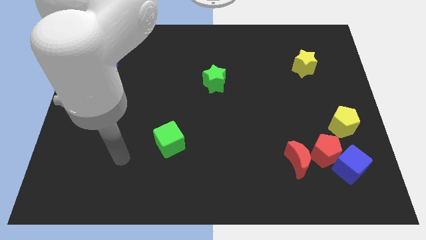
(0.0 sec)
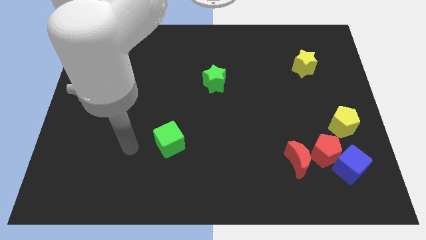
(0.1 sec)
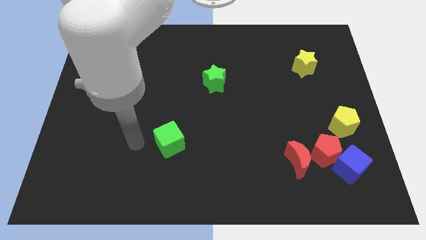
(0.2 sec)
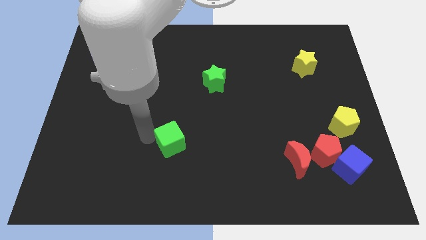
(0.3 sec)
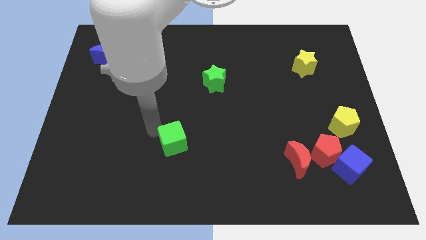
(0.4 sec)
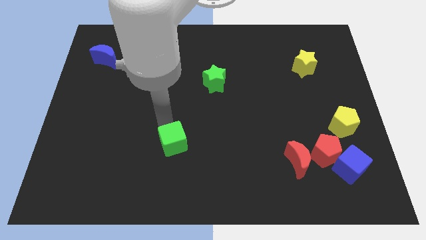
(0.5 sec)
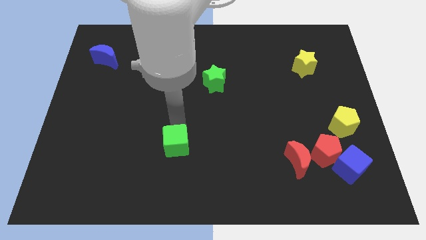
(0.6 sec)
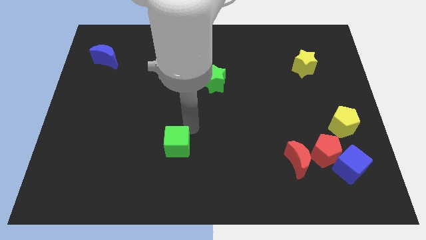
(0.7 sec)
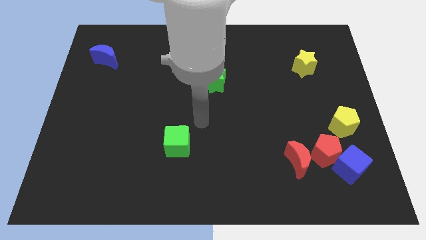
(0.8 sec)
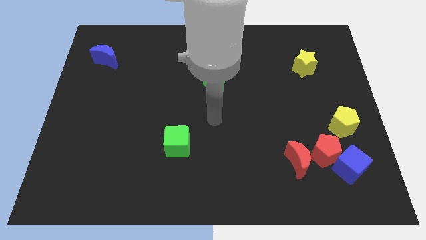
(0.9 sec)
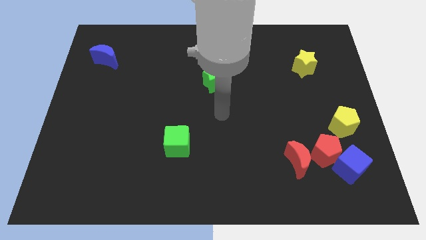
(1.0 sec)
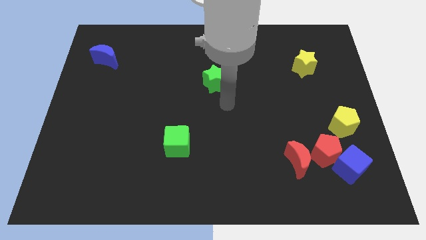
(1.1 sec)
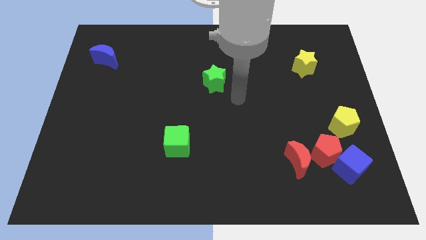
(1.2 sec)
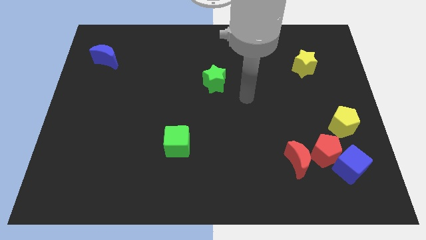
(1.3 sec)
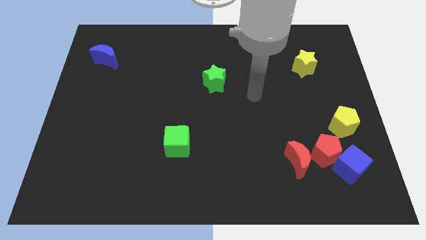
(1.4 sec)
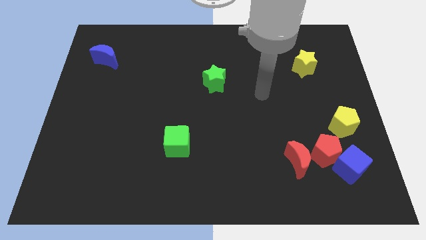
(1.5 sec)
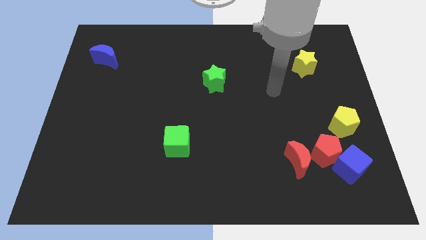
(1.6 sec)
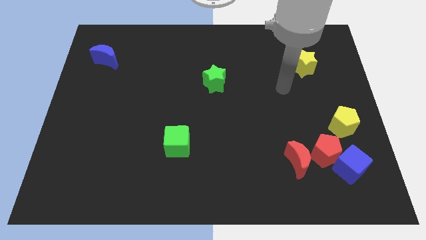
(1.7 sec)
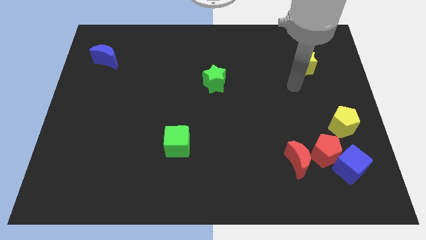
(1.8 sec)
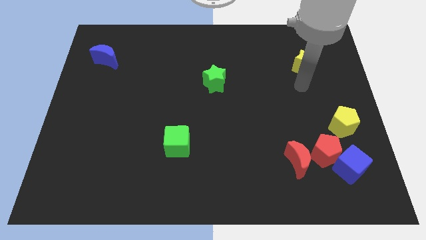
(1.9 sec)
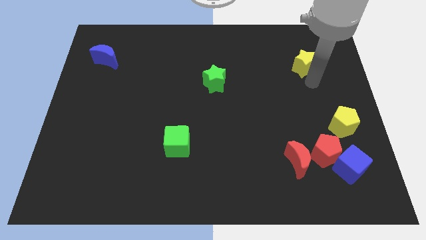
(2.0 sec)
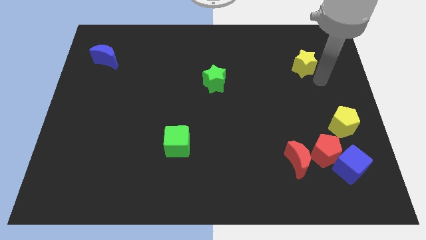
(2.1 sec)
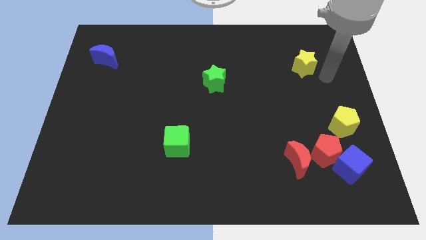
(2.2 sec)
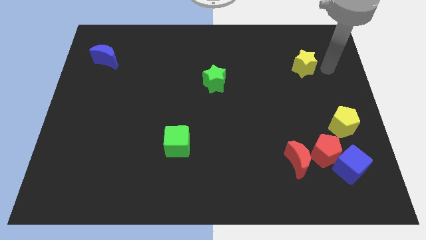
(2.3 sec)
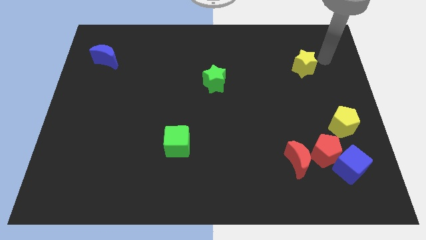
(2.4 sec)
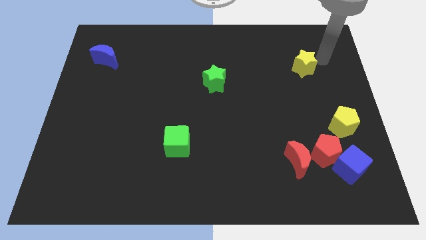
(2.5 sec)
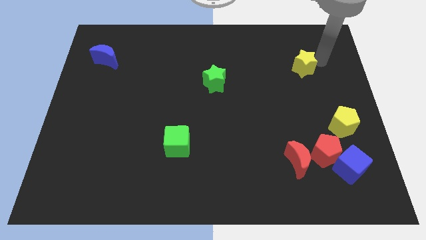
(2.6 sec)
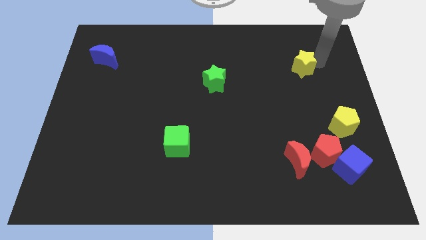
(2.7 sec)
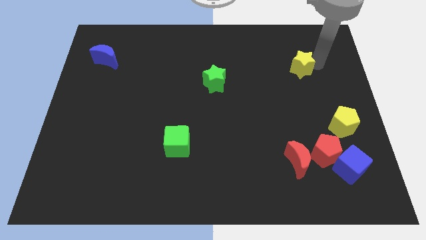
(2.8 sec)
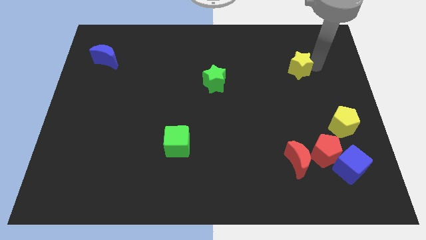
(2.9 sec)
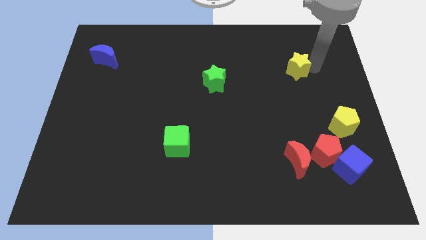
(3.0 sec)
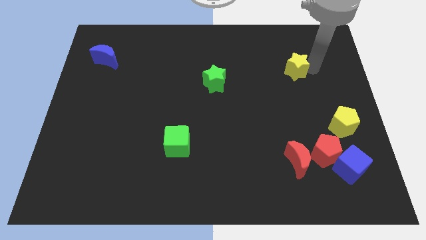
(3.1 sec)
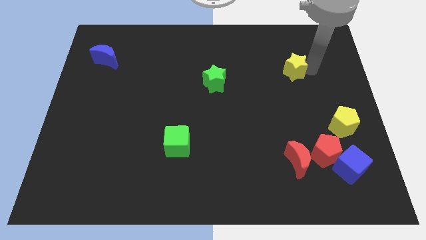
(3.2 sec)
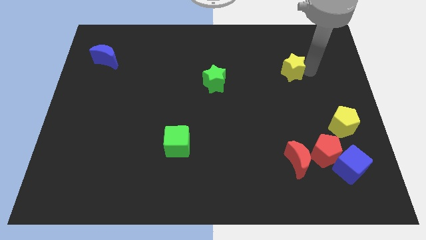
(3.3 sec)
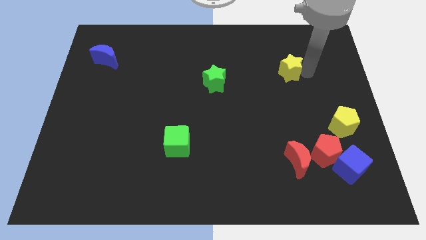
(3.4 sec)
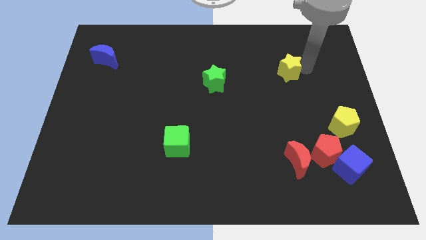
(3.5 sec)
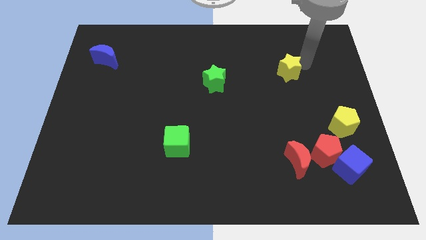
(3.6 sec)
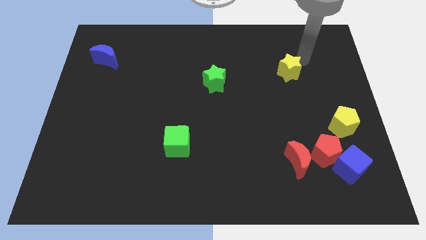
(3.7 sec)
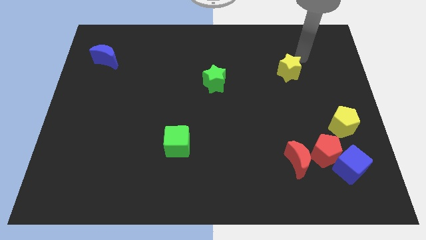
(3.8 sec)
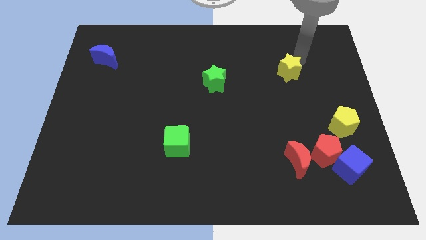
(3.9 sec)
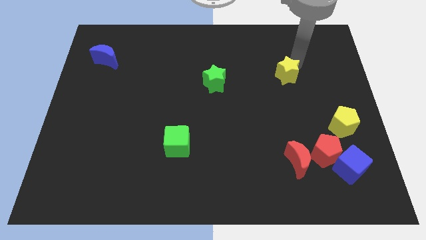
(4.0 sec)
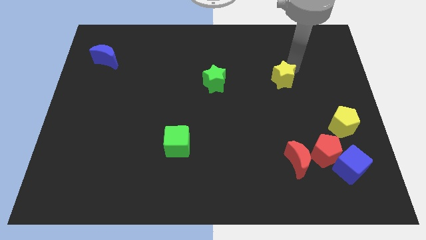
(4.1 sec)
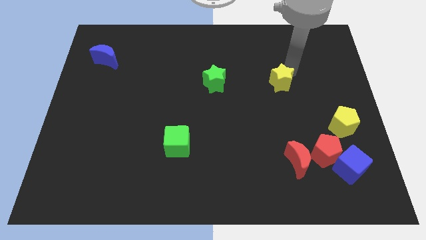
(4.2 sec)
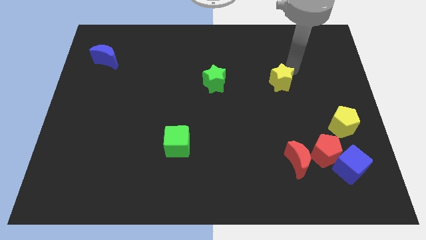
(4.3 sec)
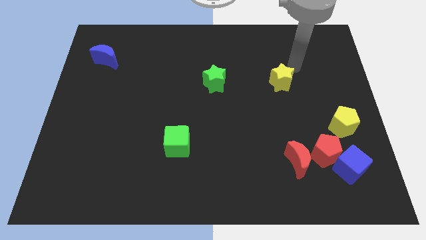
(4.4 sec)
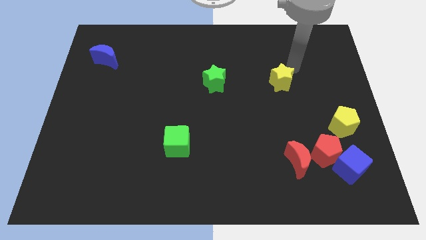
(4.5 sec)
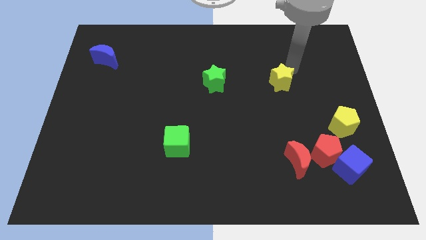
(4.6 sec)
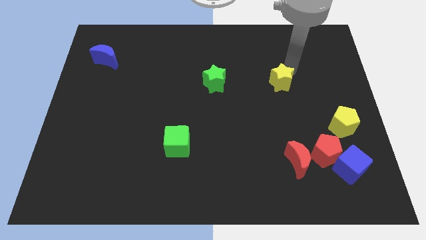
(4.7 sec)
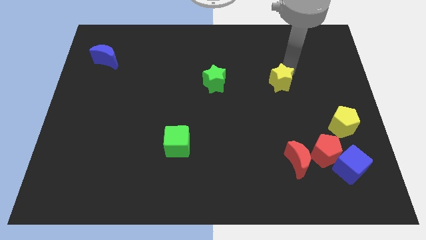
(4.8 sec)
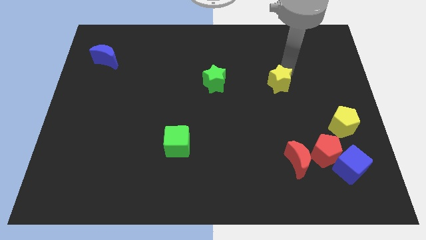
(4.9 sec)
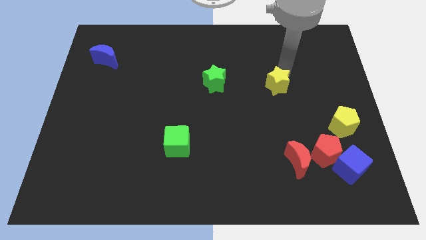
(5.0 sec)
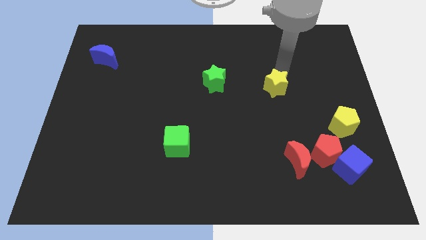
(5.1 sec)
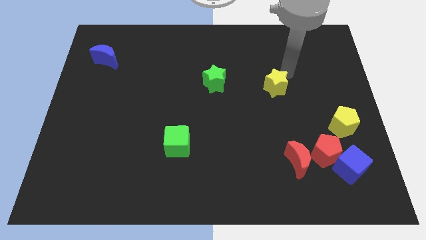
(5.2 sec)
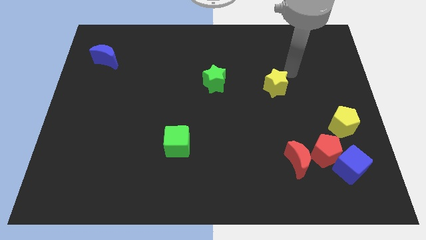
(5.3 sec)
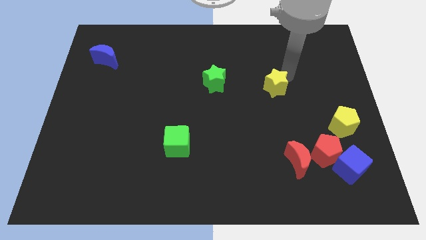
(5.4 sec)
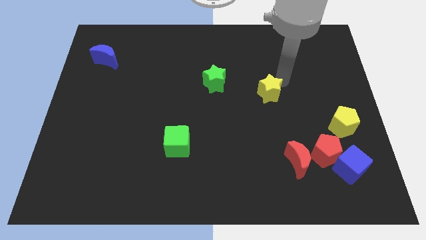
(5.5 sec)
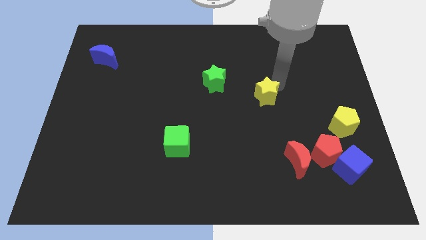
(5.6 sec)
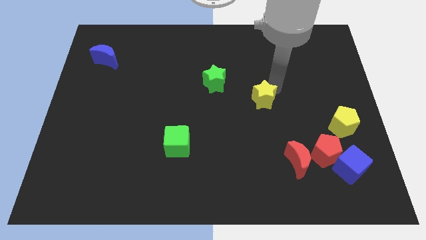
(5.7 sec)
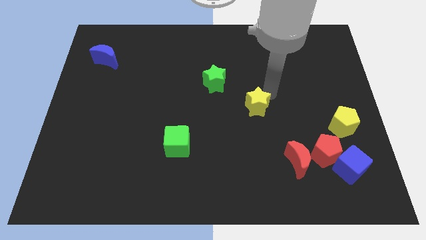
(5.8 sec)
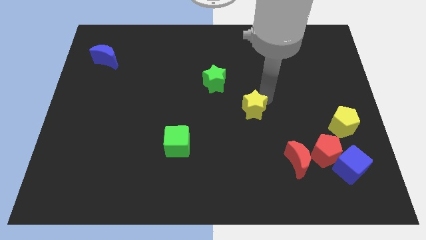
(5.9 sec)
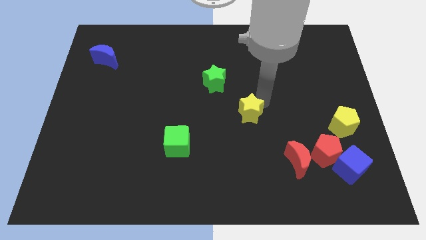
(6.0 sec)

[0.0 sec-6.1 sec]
push the yellow star downwards and to the left

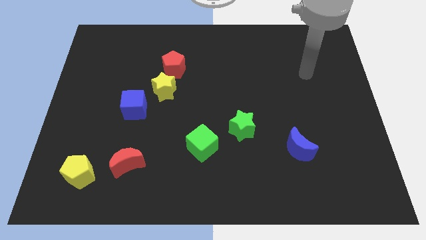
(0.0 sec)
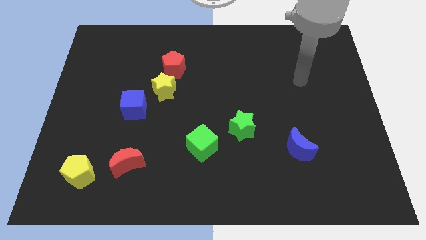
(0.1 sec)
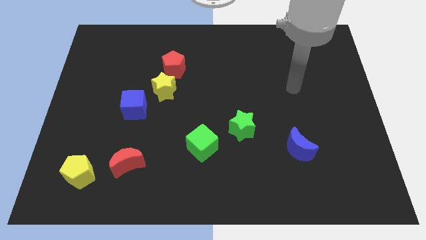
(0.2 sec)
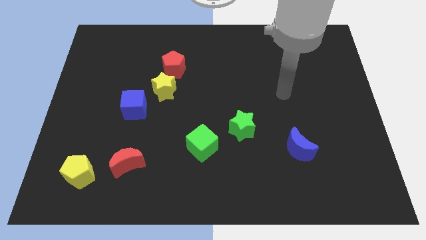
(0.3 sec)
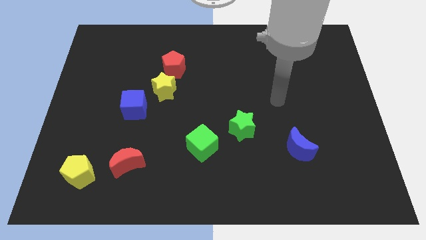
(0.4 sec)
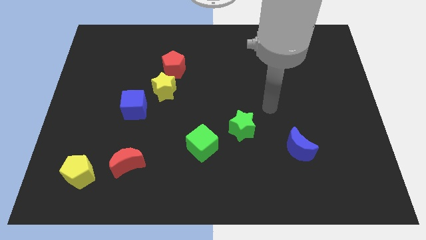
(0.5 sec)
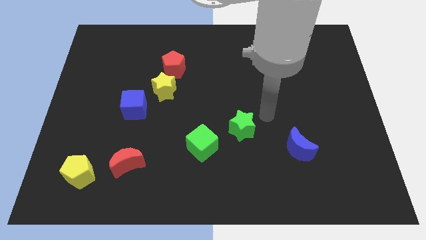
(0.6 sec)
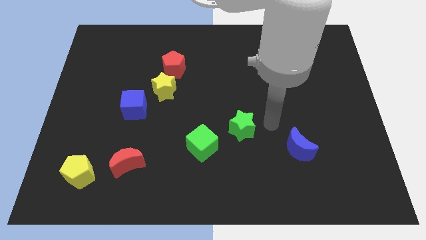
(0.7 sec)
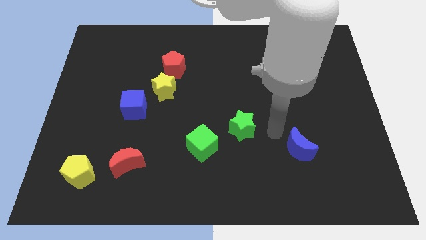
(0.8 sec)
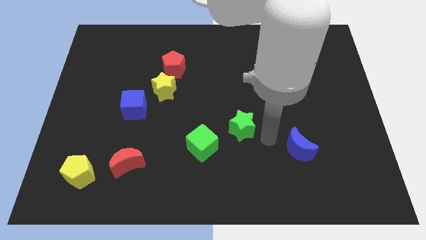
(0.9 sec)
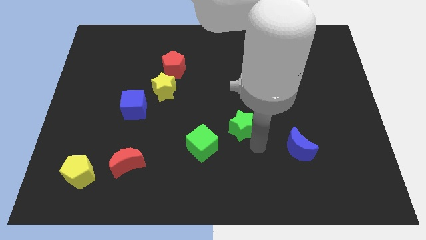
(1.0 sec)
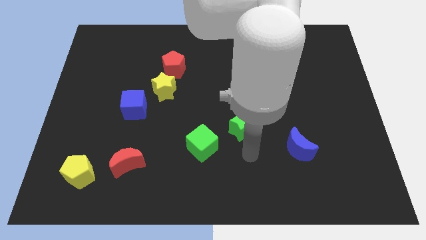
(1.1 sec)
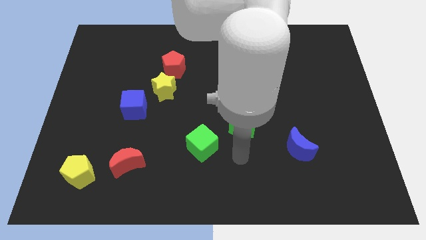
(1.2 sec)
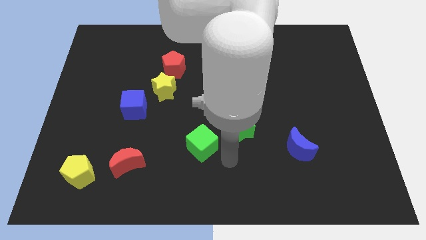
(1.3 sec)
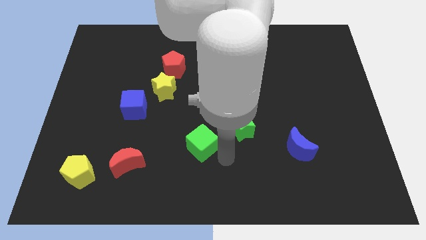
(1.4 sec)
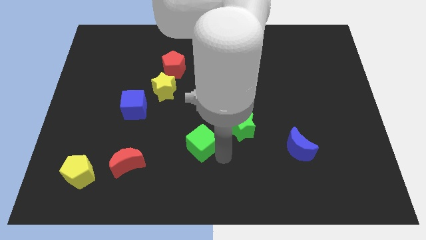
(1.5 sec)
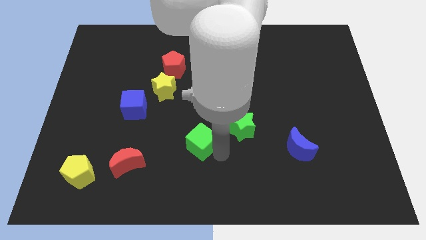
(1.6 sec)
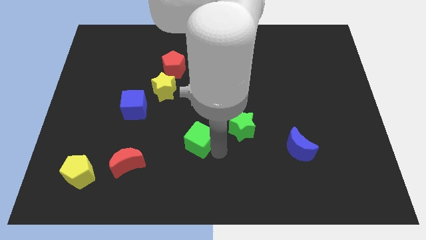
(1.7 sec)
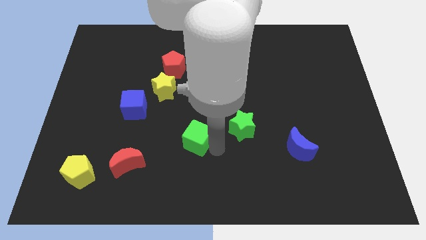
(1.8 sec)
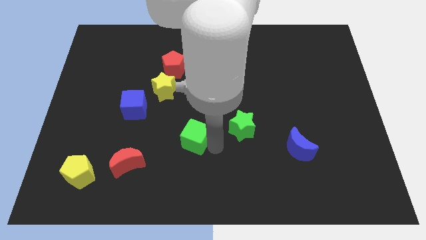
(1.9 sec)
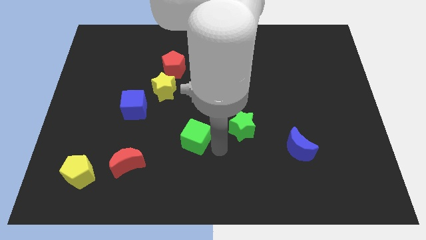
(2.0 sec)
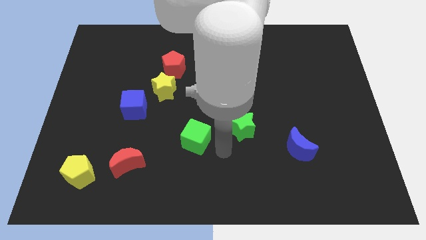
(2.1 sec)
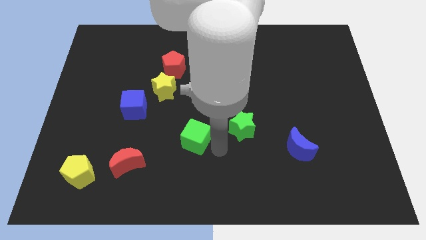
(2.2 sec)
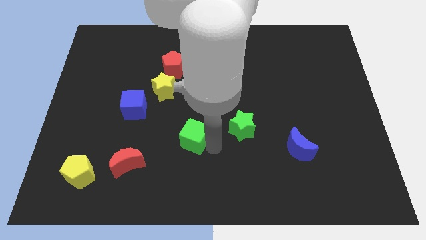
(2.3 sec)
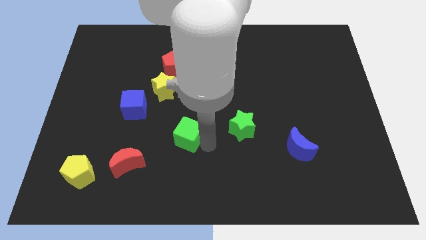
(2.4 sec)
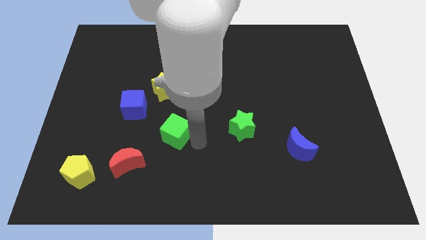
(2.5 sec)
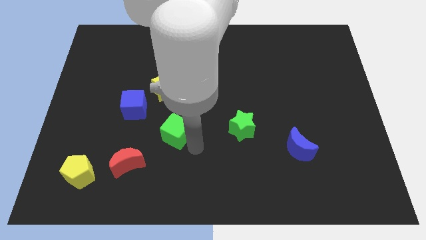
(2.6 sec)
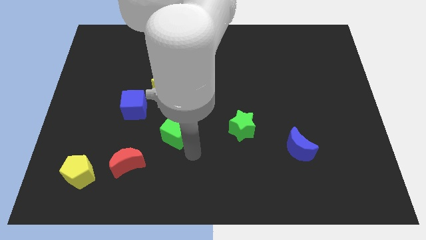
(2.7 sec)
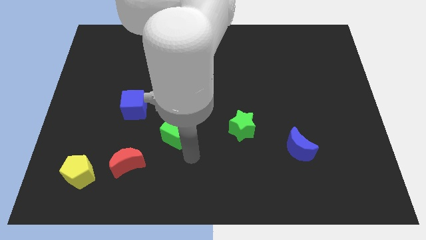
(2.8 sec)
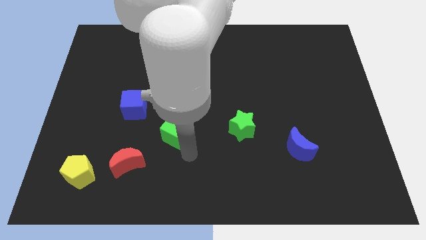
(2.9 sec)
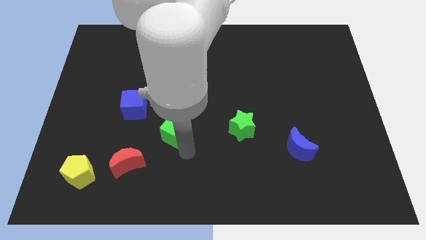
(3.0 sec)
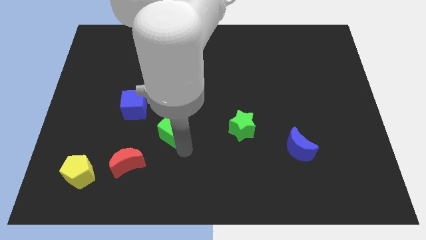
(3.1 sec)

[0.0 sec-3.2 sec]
slightly move the green cube diagonally upwards and left
